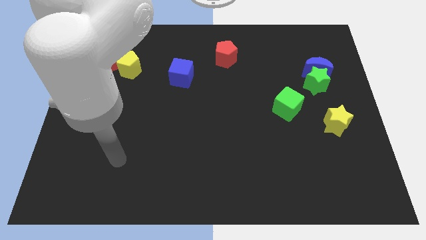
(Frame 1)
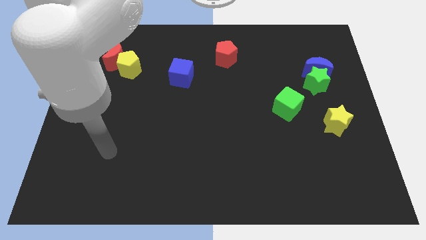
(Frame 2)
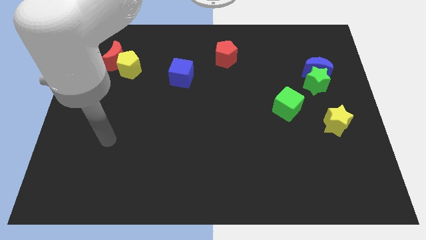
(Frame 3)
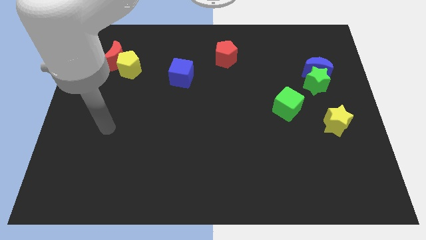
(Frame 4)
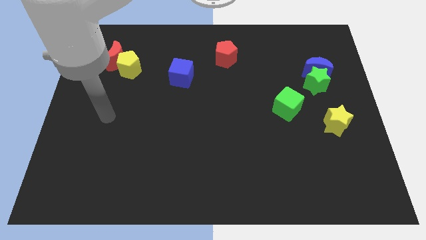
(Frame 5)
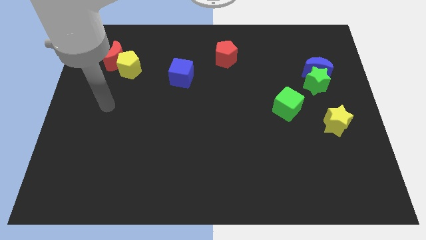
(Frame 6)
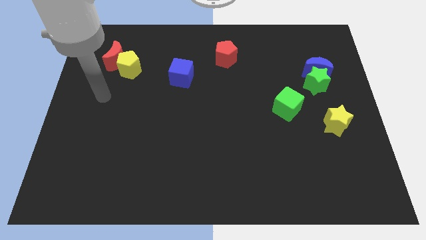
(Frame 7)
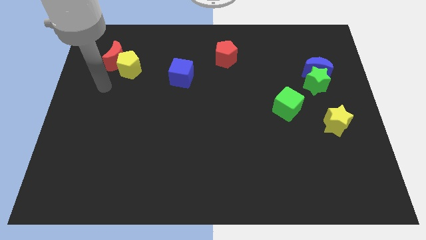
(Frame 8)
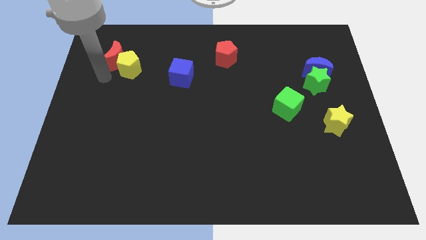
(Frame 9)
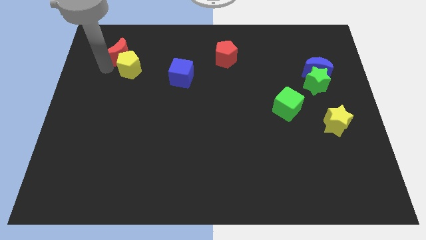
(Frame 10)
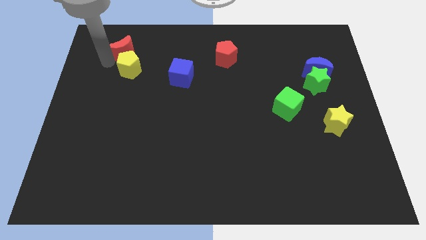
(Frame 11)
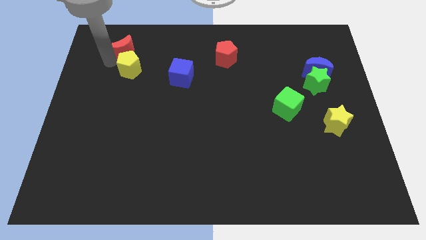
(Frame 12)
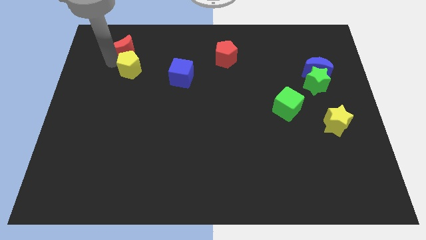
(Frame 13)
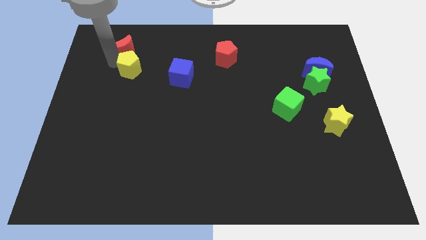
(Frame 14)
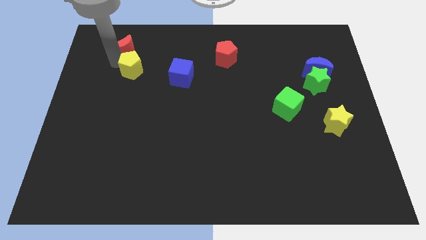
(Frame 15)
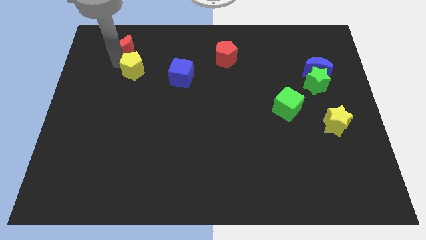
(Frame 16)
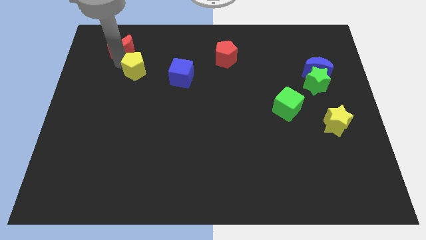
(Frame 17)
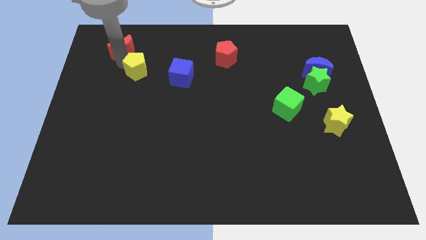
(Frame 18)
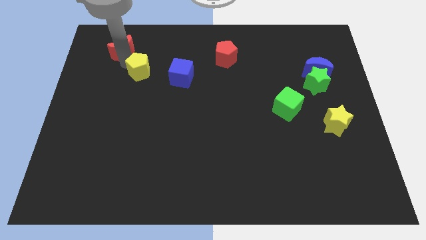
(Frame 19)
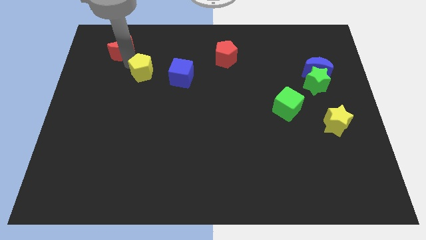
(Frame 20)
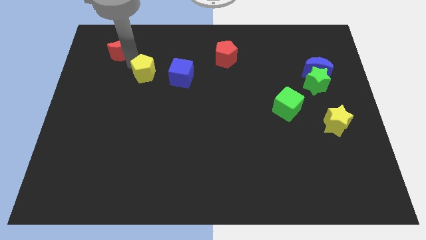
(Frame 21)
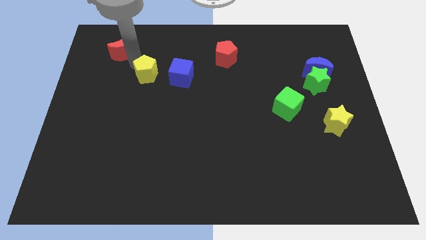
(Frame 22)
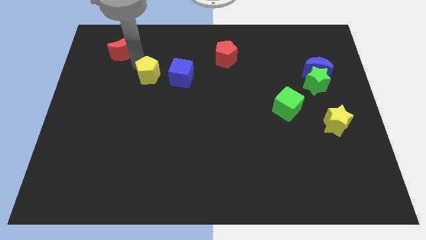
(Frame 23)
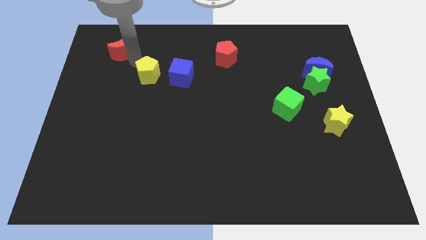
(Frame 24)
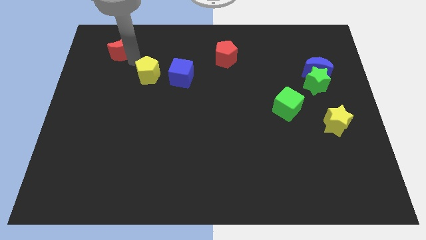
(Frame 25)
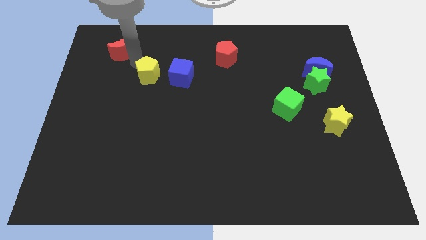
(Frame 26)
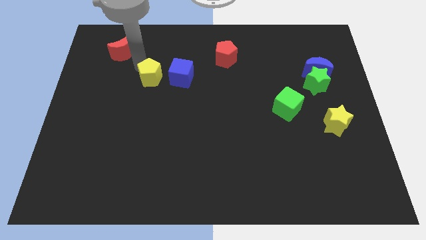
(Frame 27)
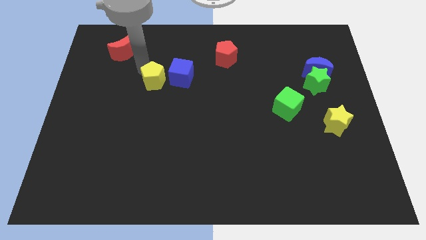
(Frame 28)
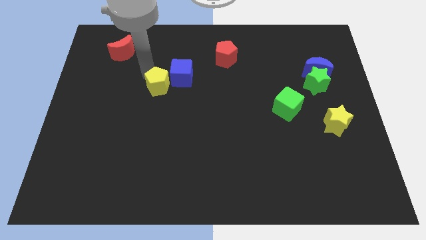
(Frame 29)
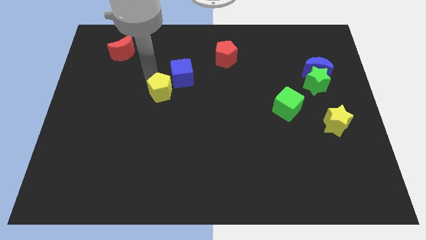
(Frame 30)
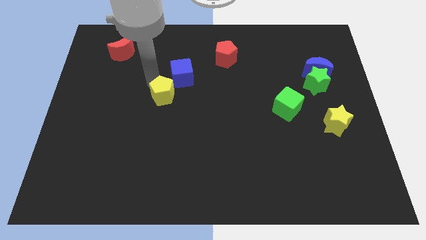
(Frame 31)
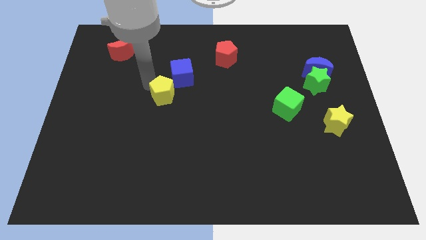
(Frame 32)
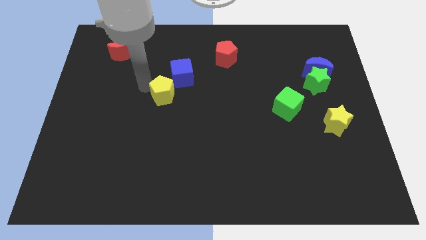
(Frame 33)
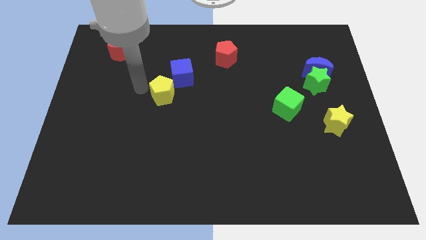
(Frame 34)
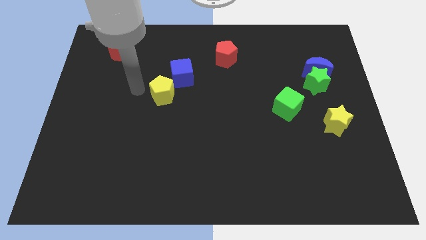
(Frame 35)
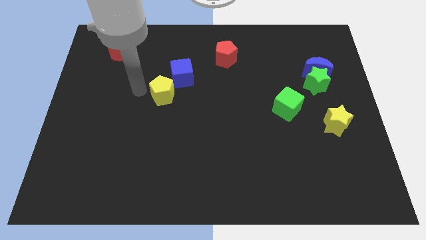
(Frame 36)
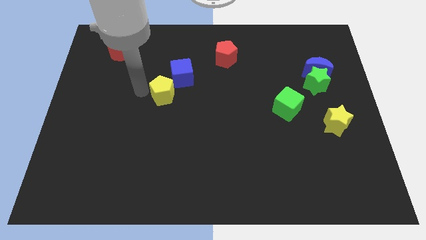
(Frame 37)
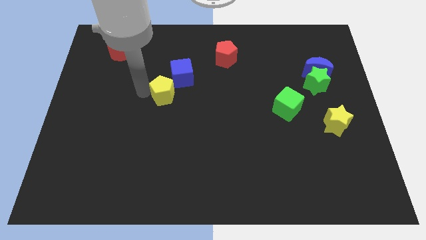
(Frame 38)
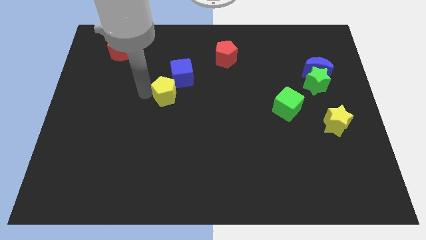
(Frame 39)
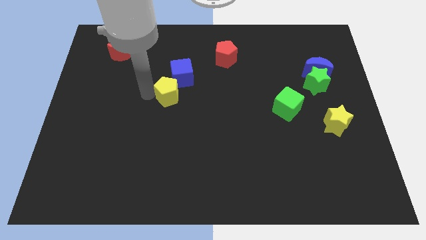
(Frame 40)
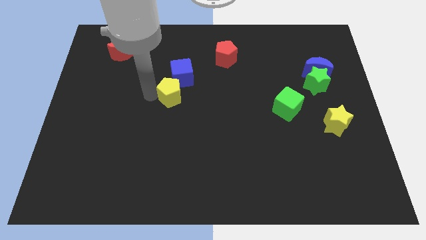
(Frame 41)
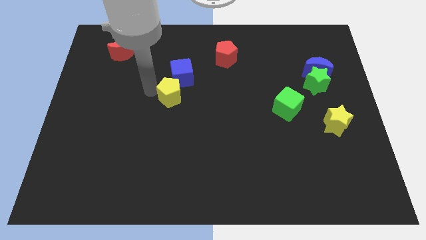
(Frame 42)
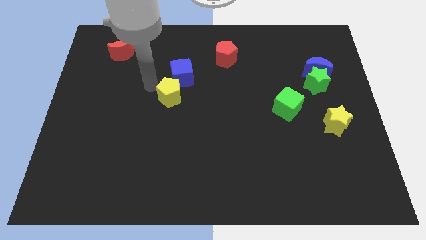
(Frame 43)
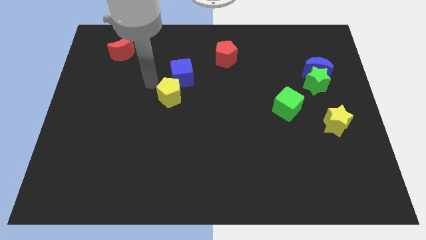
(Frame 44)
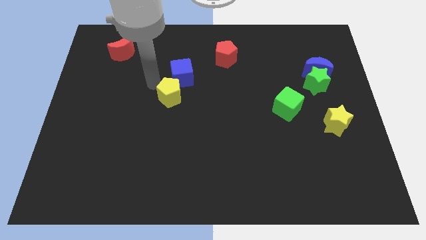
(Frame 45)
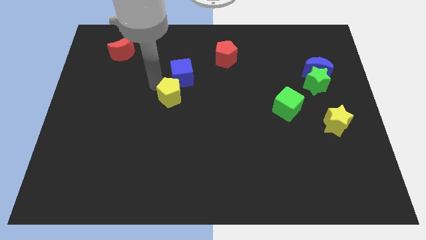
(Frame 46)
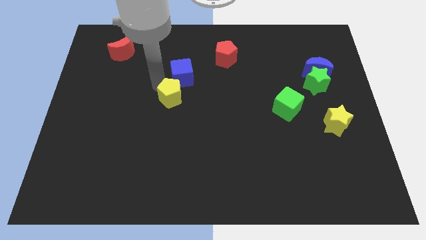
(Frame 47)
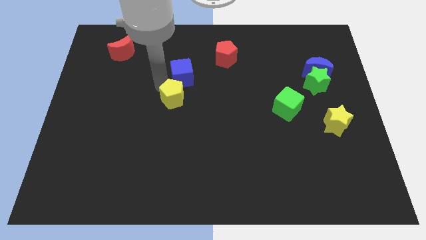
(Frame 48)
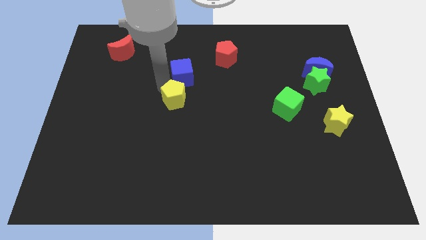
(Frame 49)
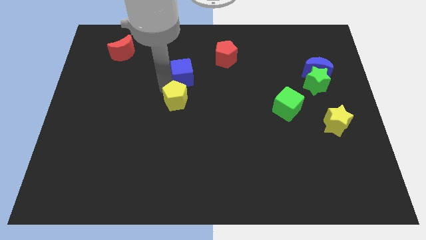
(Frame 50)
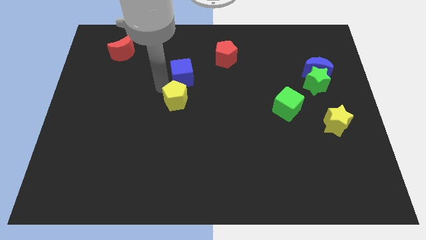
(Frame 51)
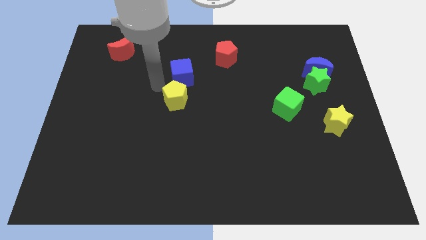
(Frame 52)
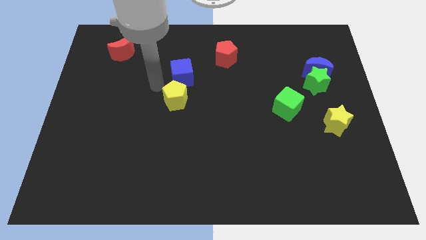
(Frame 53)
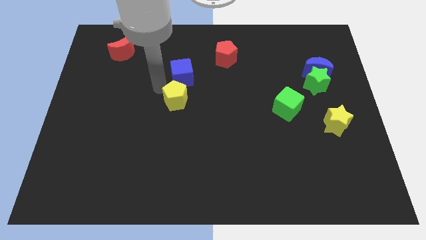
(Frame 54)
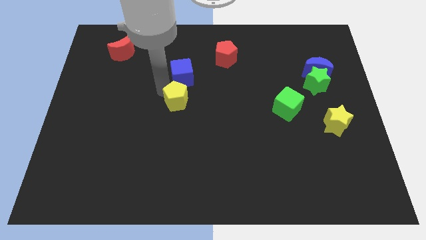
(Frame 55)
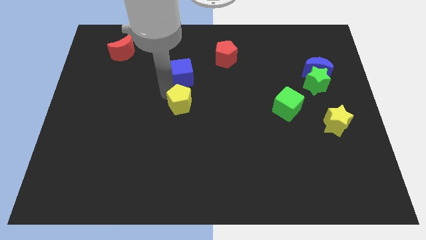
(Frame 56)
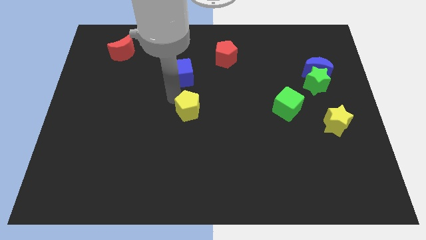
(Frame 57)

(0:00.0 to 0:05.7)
slide the yellow pentagon downwards and right

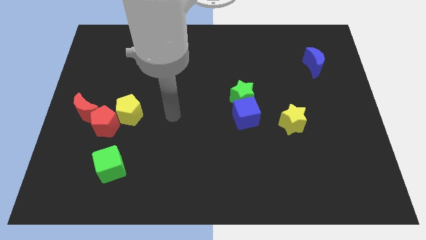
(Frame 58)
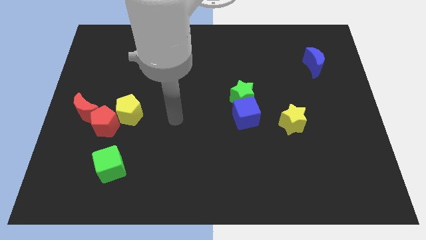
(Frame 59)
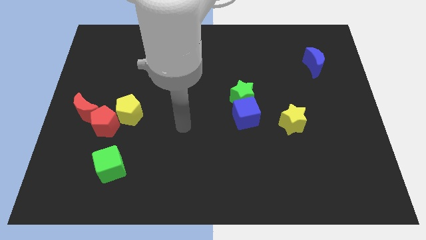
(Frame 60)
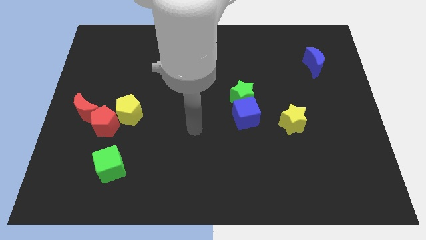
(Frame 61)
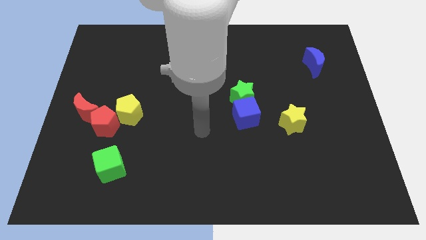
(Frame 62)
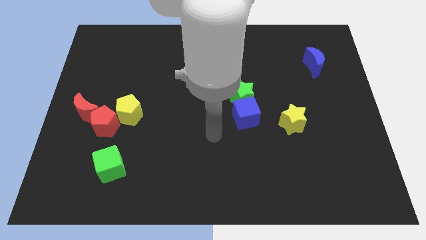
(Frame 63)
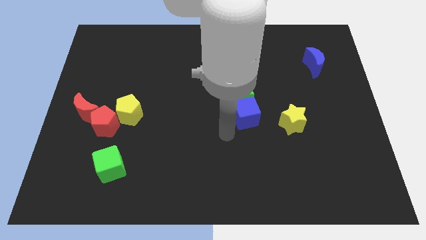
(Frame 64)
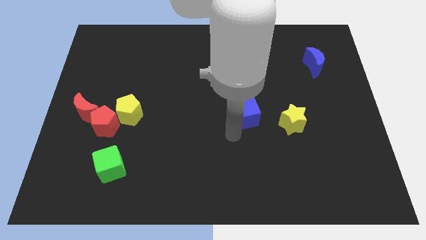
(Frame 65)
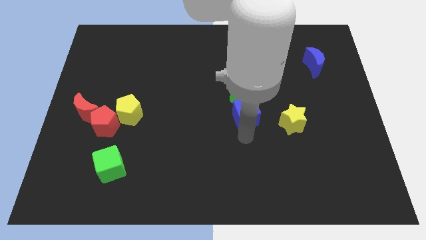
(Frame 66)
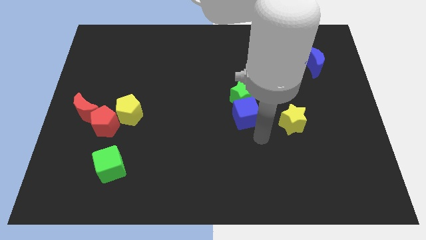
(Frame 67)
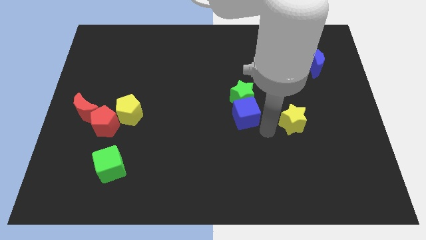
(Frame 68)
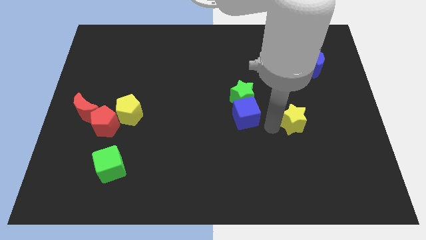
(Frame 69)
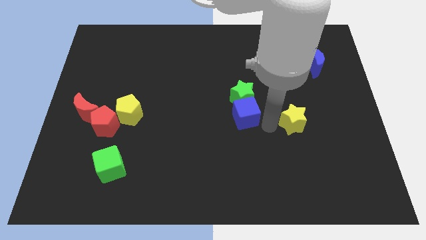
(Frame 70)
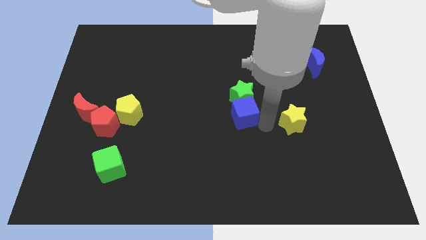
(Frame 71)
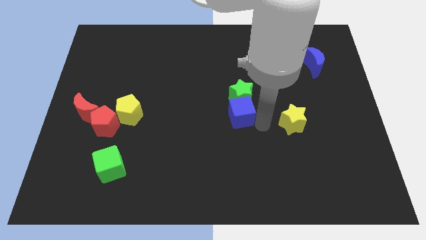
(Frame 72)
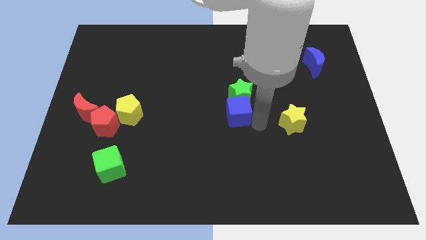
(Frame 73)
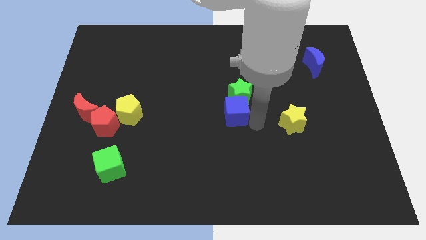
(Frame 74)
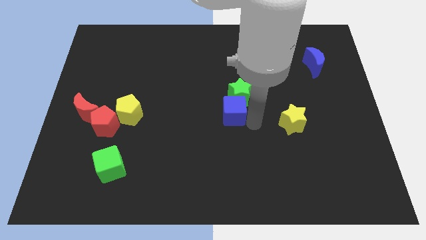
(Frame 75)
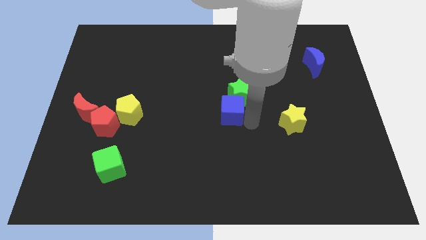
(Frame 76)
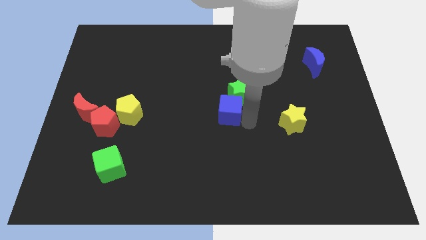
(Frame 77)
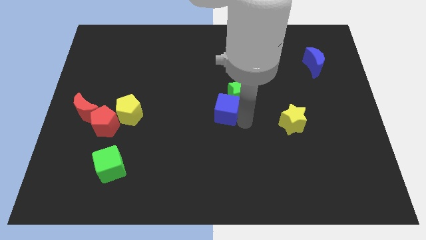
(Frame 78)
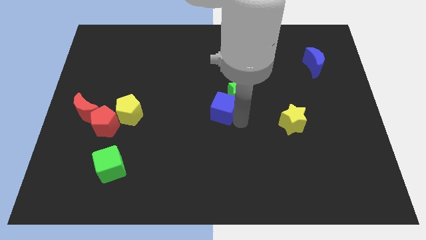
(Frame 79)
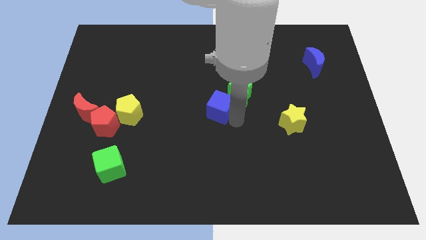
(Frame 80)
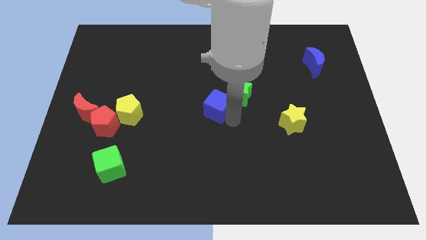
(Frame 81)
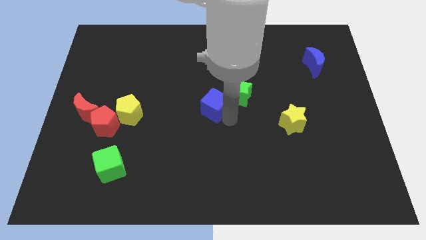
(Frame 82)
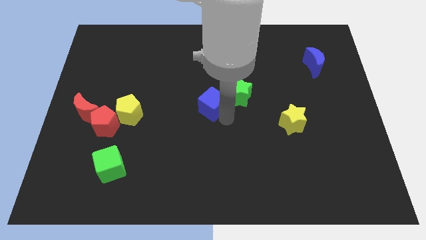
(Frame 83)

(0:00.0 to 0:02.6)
push the blue cube up and to the left a little
